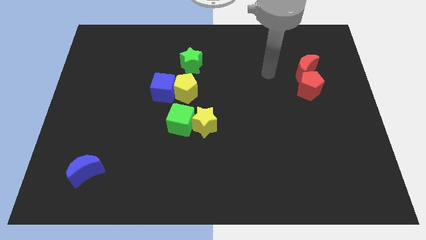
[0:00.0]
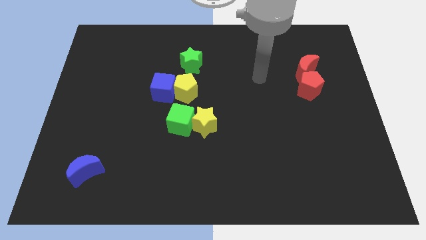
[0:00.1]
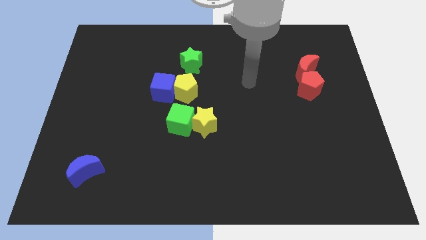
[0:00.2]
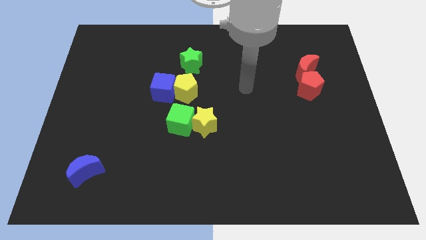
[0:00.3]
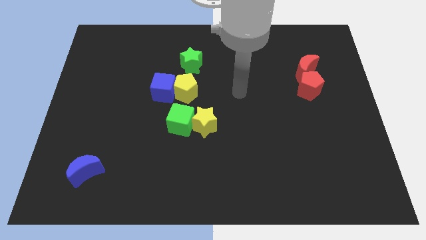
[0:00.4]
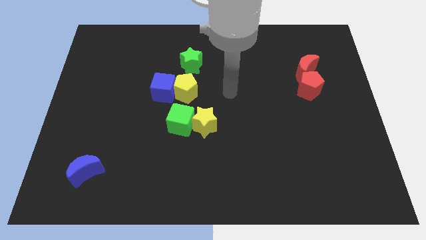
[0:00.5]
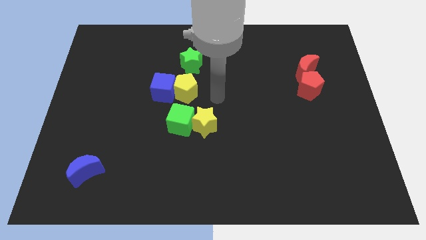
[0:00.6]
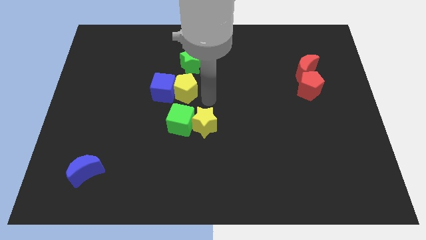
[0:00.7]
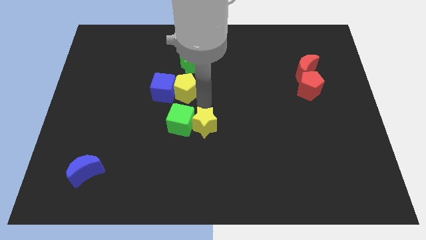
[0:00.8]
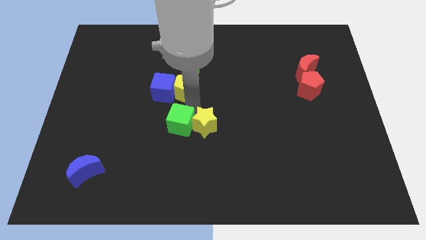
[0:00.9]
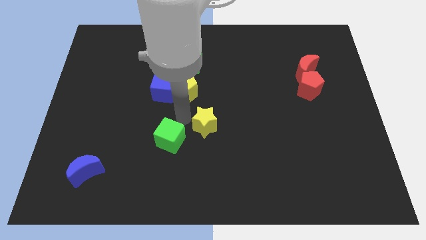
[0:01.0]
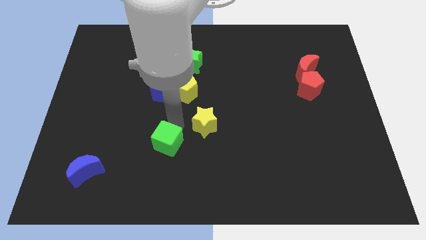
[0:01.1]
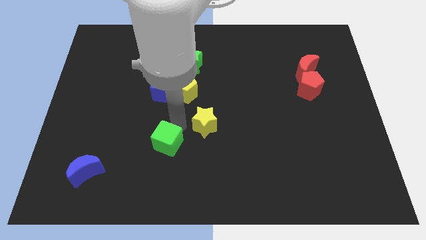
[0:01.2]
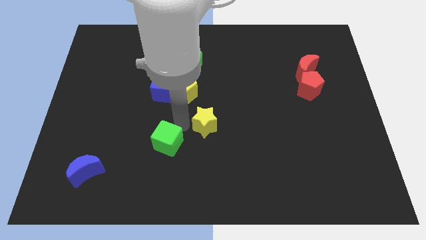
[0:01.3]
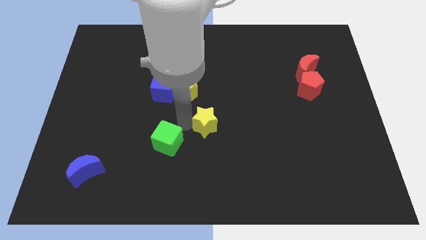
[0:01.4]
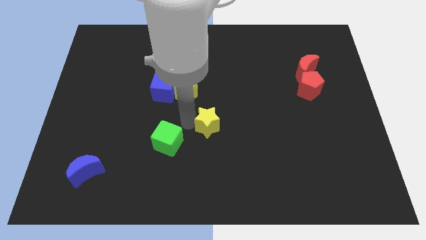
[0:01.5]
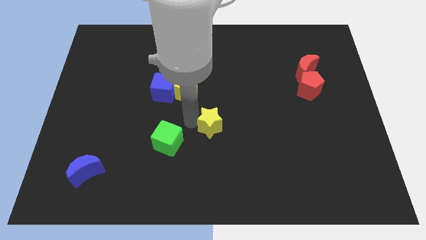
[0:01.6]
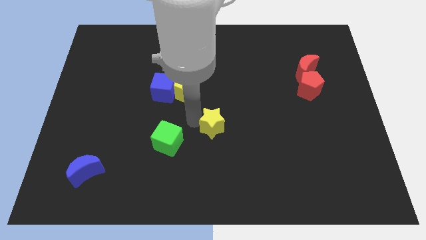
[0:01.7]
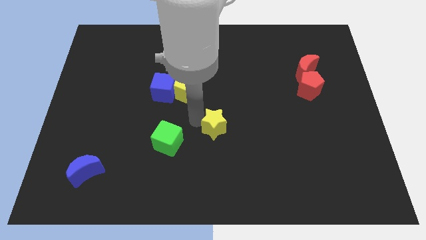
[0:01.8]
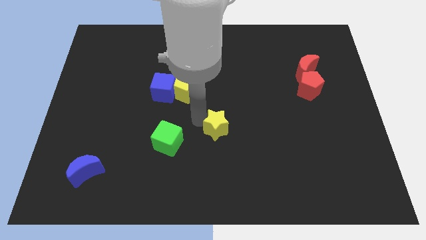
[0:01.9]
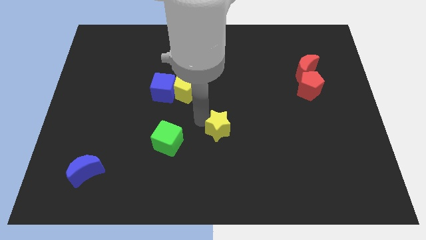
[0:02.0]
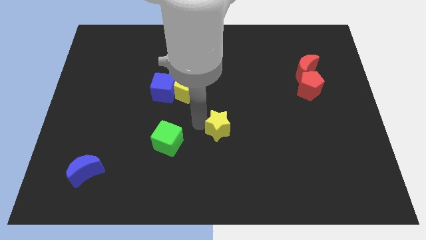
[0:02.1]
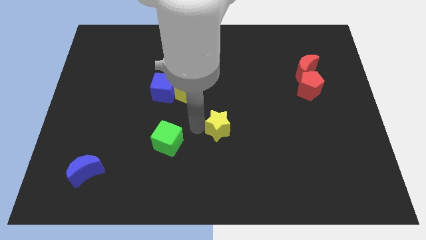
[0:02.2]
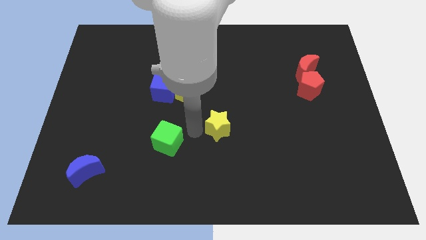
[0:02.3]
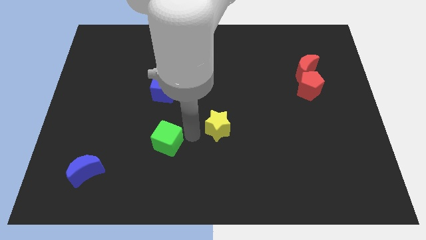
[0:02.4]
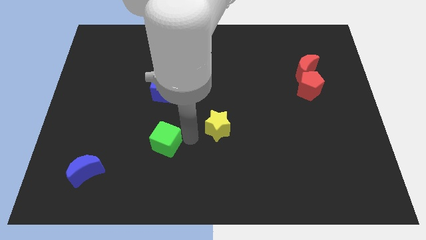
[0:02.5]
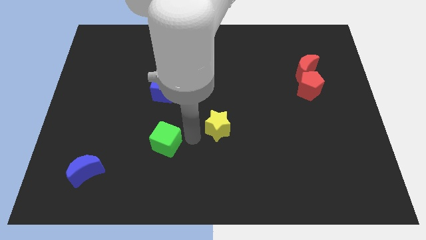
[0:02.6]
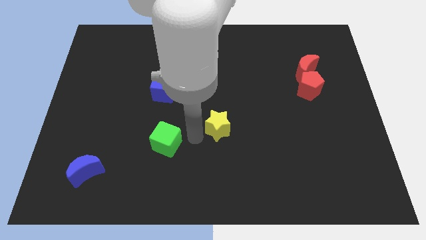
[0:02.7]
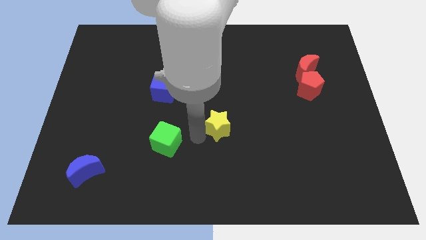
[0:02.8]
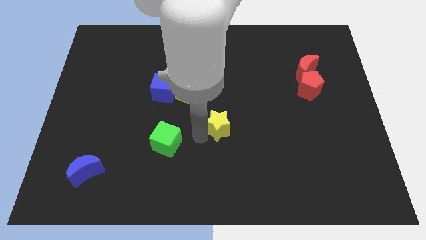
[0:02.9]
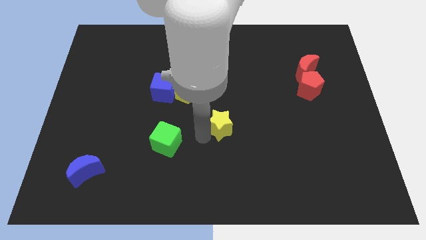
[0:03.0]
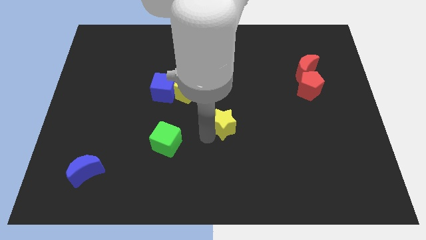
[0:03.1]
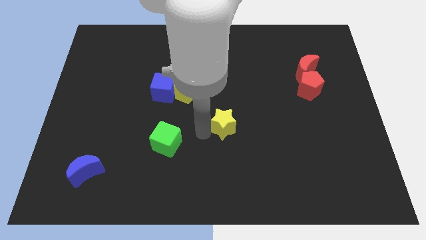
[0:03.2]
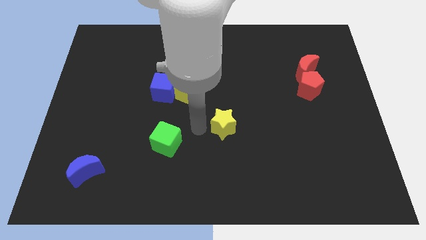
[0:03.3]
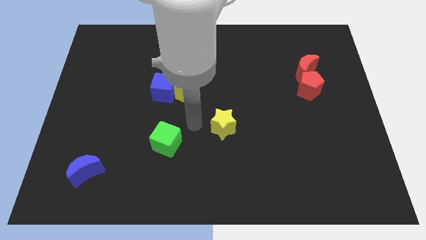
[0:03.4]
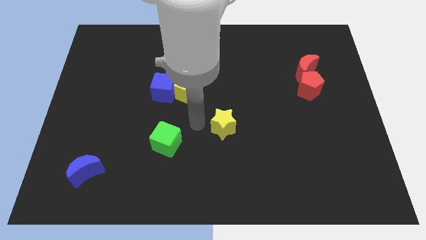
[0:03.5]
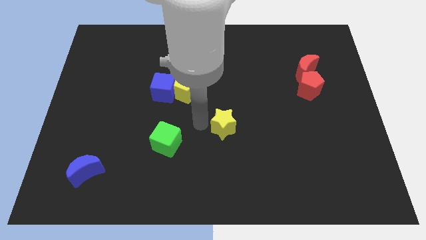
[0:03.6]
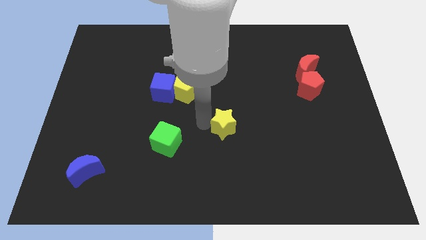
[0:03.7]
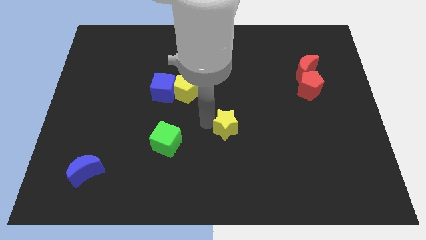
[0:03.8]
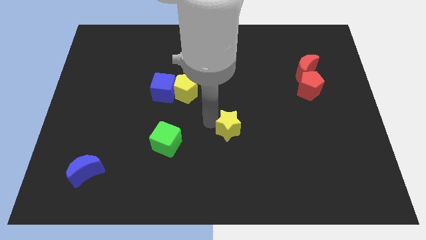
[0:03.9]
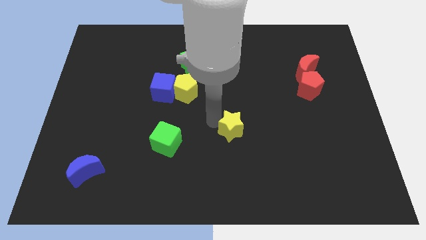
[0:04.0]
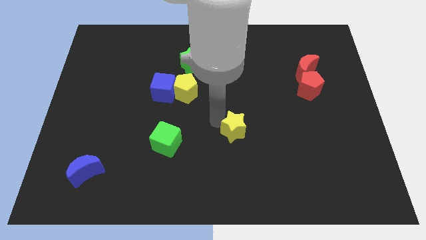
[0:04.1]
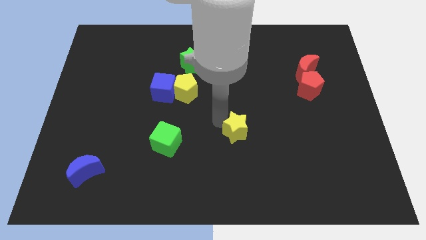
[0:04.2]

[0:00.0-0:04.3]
move the yellow star a little to the right

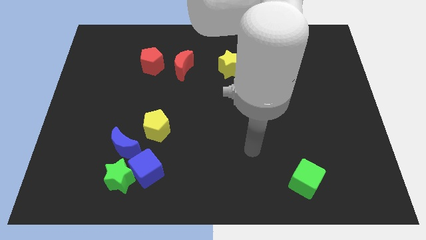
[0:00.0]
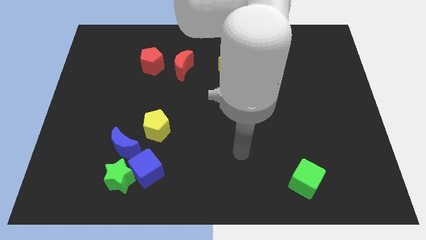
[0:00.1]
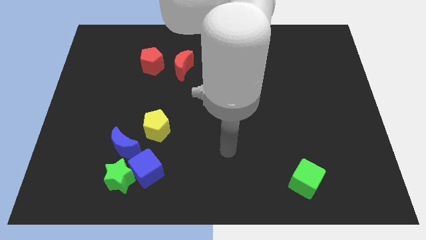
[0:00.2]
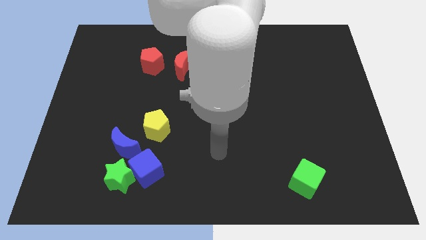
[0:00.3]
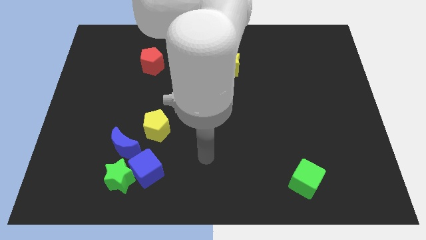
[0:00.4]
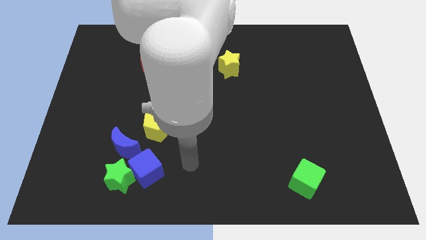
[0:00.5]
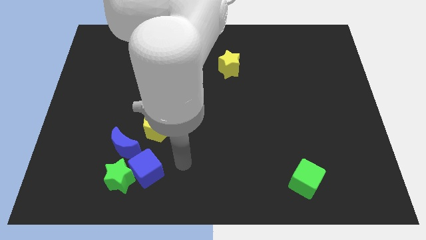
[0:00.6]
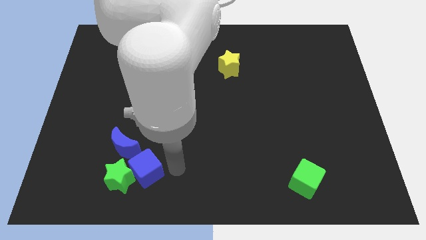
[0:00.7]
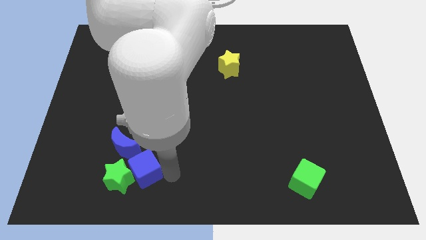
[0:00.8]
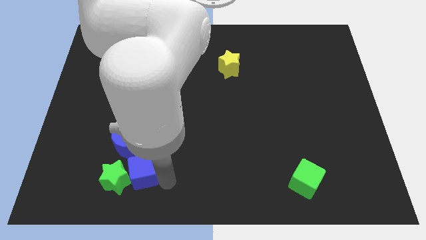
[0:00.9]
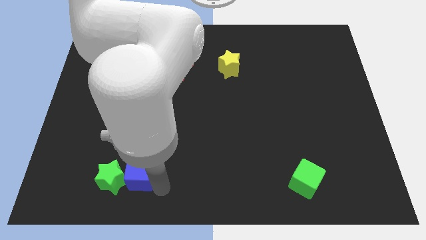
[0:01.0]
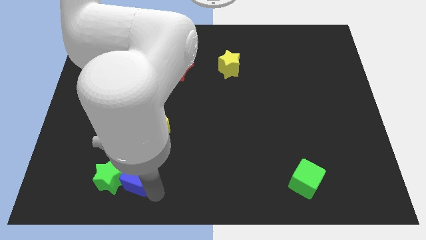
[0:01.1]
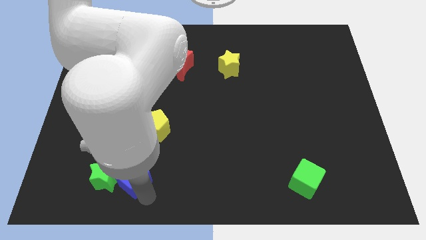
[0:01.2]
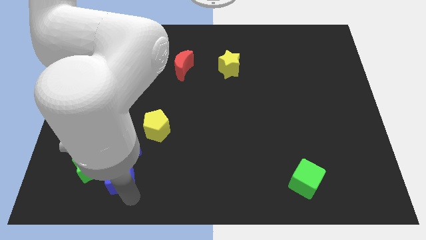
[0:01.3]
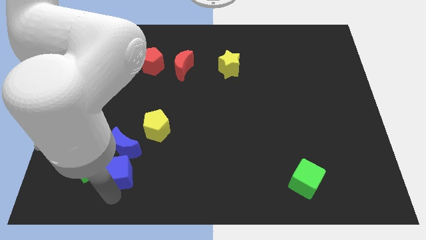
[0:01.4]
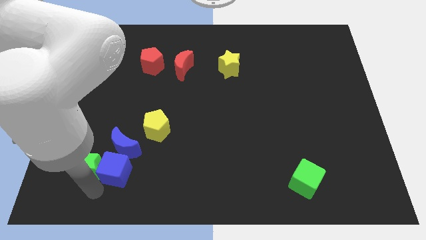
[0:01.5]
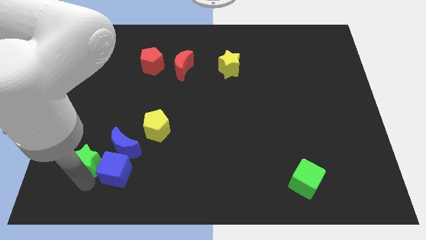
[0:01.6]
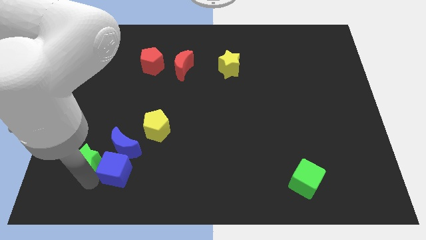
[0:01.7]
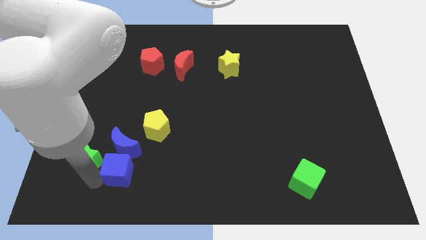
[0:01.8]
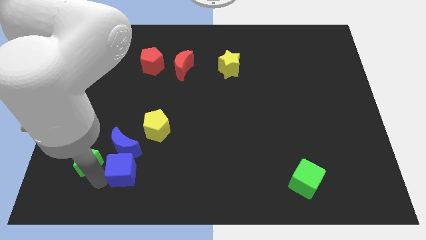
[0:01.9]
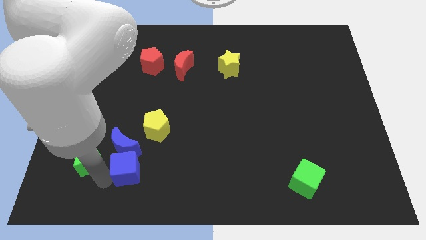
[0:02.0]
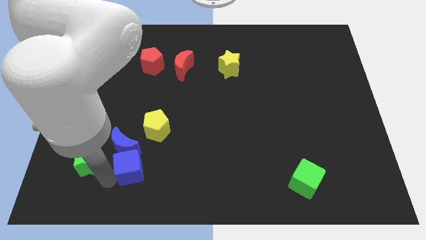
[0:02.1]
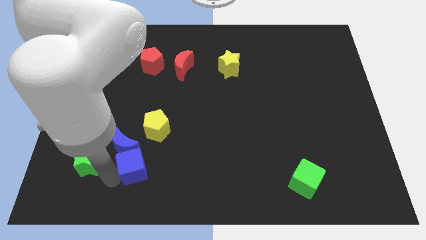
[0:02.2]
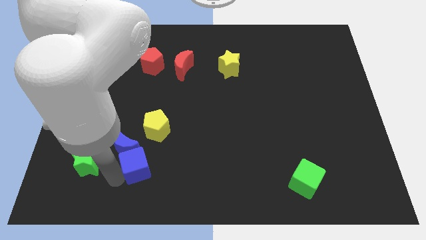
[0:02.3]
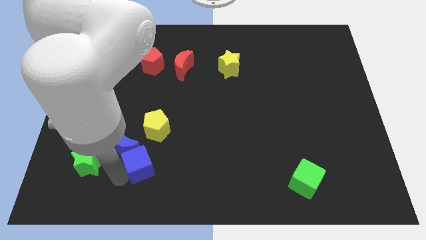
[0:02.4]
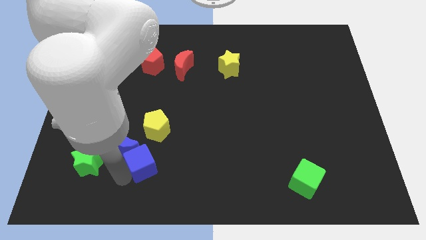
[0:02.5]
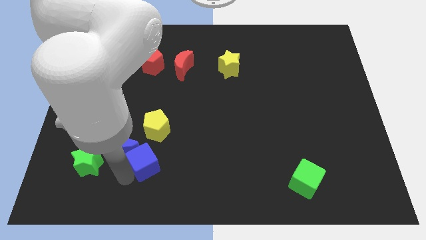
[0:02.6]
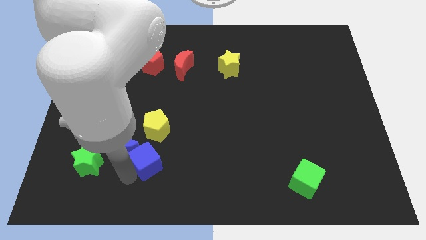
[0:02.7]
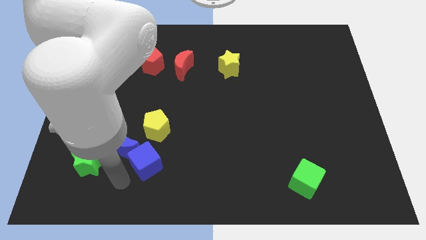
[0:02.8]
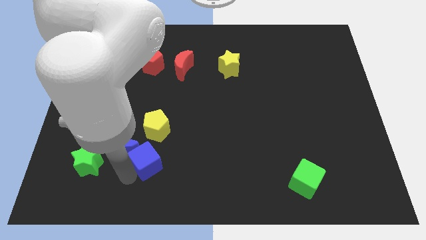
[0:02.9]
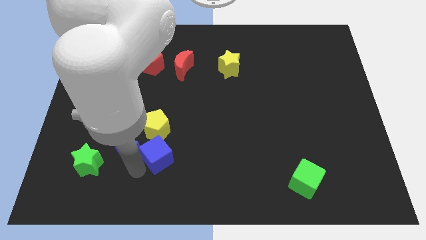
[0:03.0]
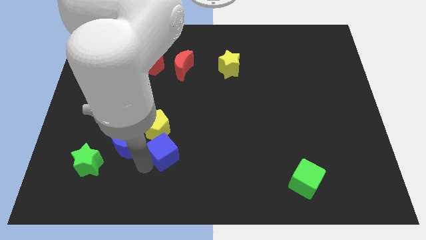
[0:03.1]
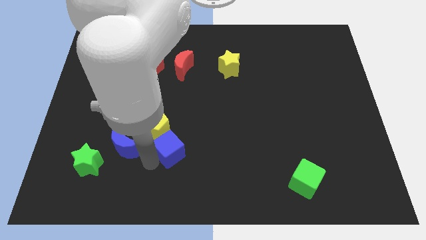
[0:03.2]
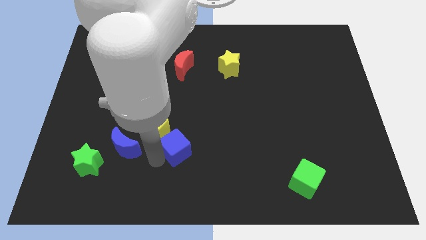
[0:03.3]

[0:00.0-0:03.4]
slide the blue cube somewhat upwards and right

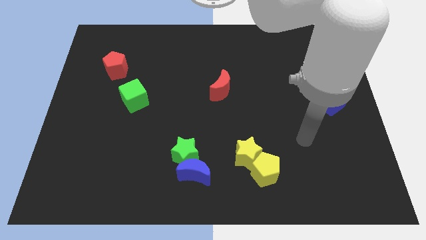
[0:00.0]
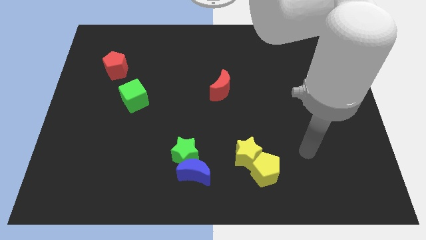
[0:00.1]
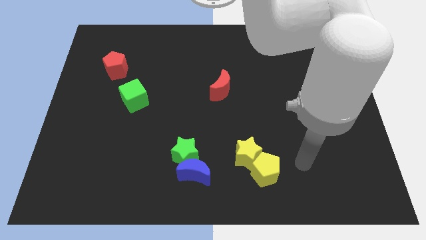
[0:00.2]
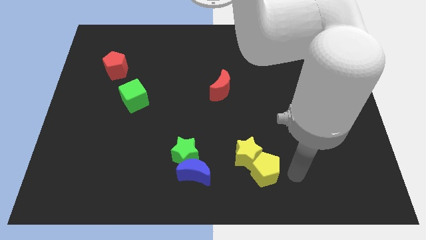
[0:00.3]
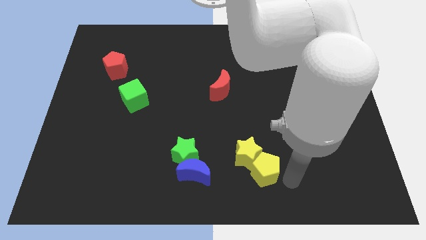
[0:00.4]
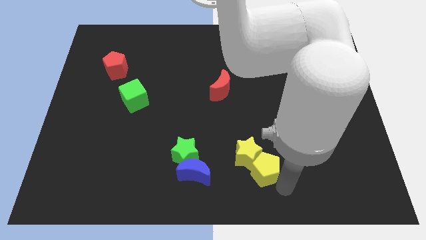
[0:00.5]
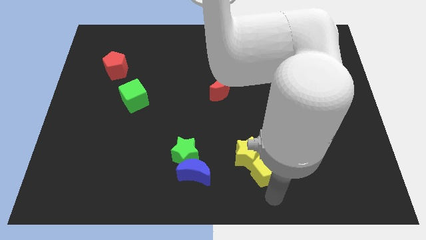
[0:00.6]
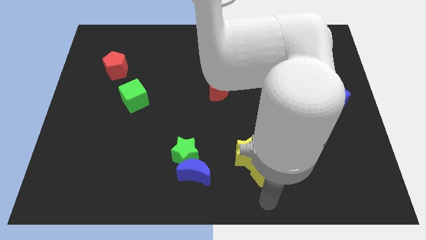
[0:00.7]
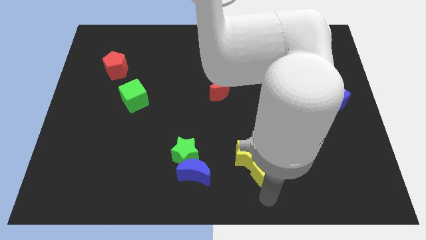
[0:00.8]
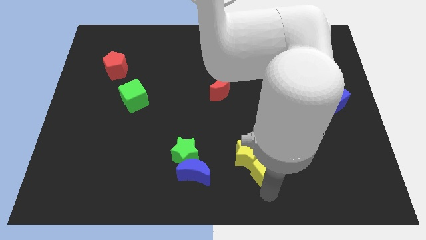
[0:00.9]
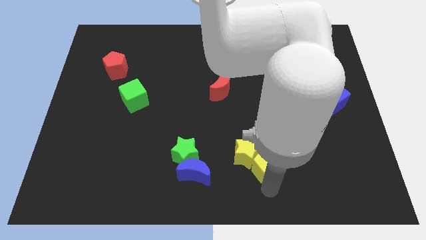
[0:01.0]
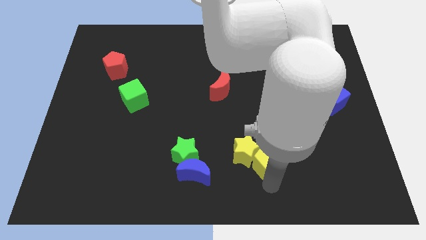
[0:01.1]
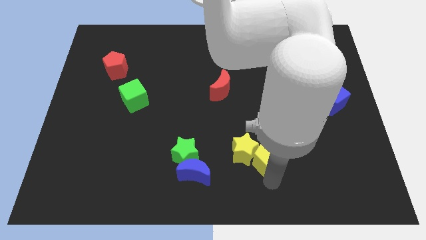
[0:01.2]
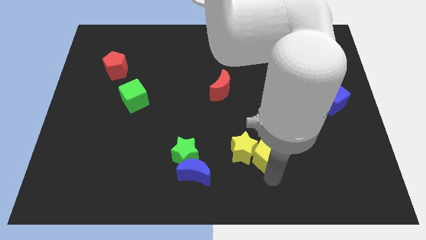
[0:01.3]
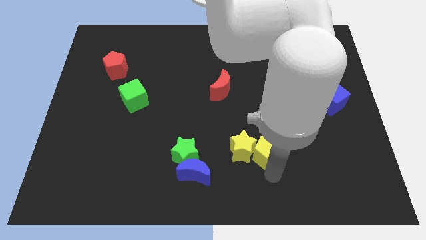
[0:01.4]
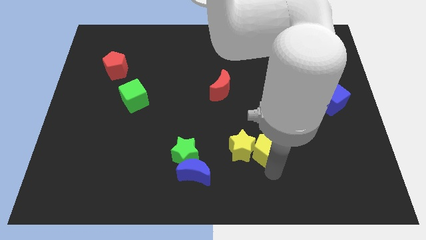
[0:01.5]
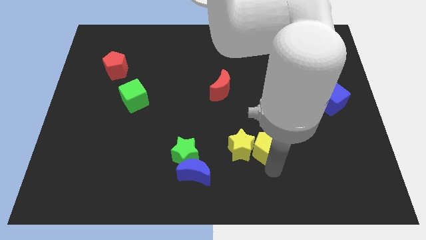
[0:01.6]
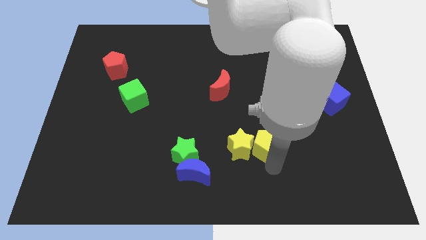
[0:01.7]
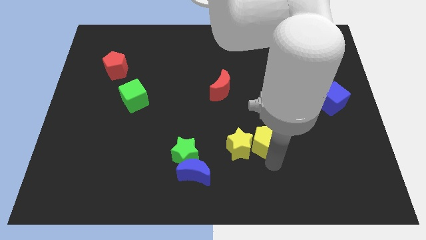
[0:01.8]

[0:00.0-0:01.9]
slide the yellow pentagon up somewhat
